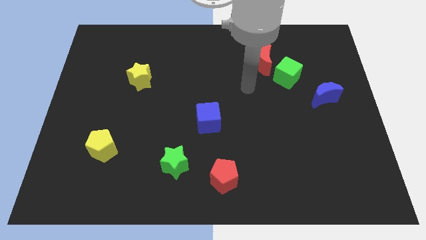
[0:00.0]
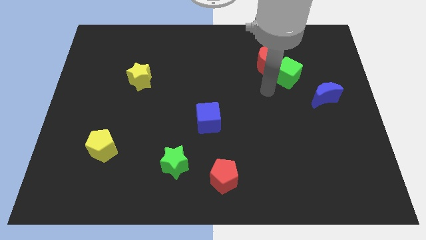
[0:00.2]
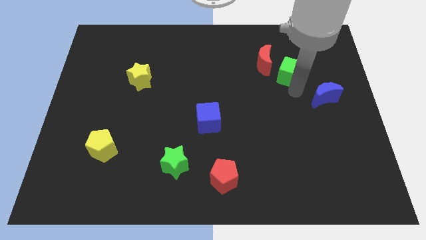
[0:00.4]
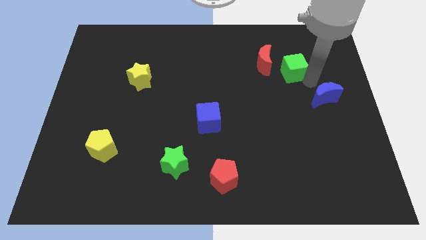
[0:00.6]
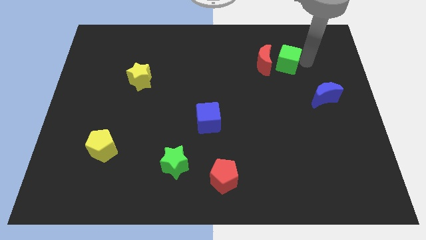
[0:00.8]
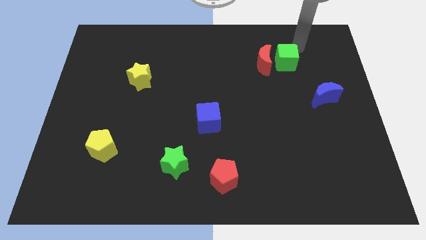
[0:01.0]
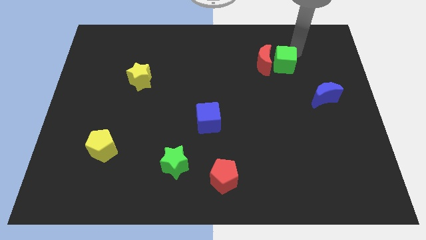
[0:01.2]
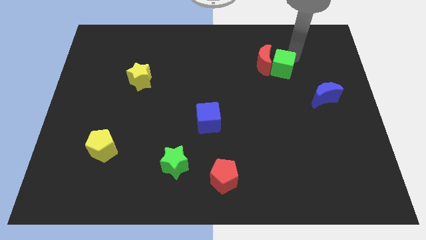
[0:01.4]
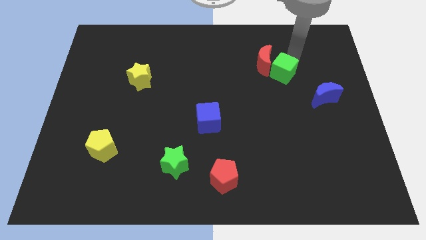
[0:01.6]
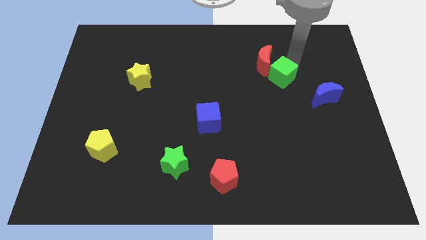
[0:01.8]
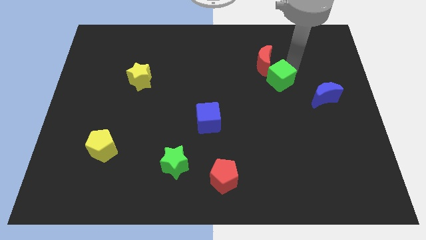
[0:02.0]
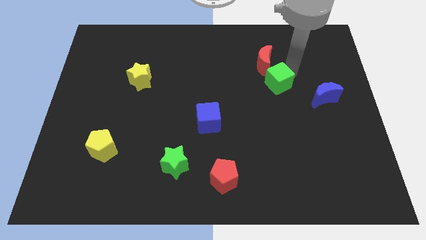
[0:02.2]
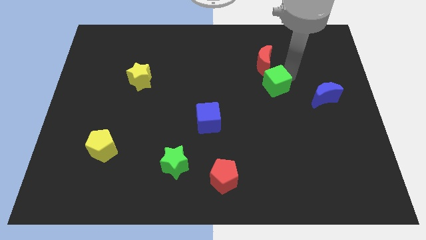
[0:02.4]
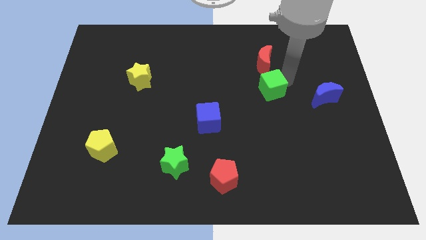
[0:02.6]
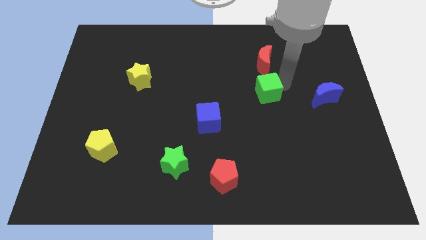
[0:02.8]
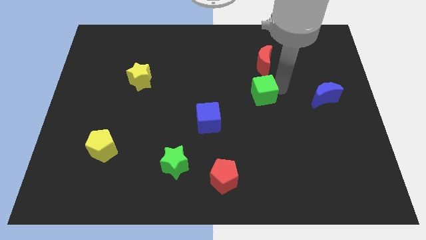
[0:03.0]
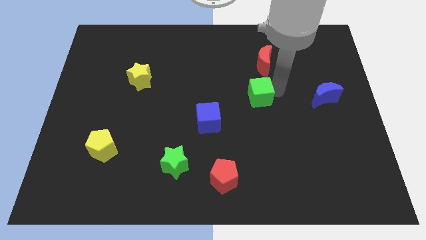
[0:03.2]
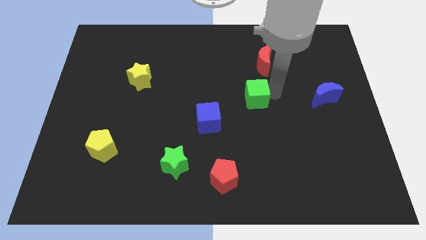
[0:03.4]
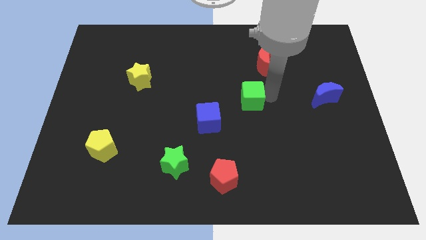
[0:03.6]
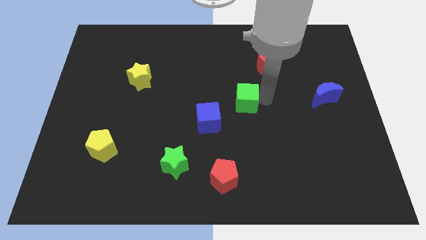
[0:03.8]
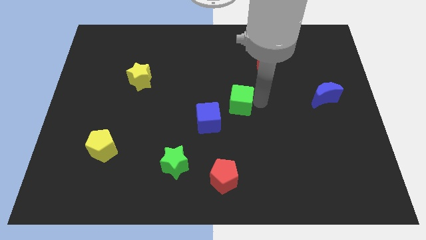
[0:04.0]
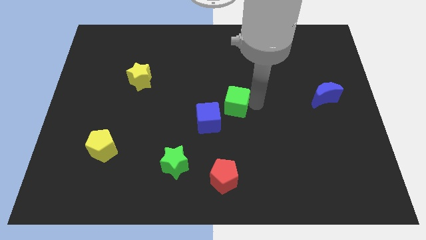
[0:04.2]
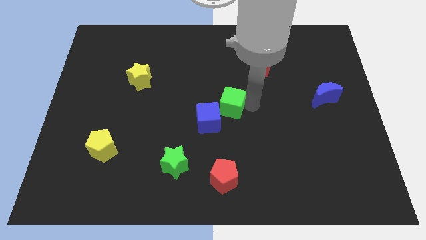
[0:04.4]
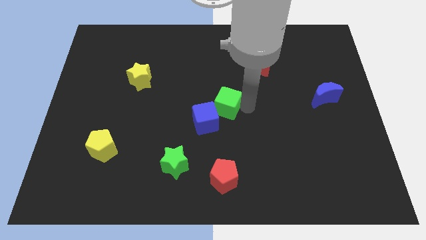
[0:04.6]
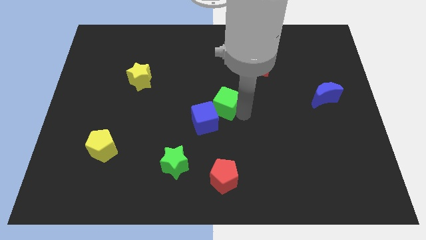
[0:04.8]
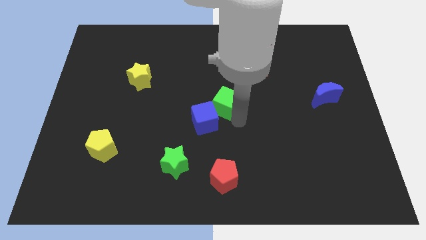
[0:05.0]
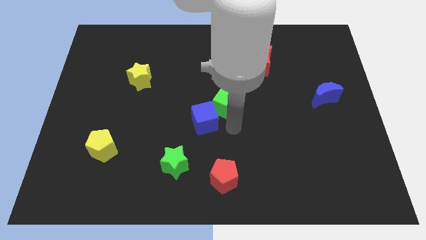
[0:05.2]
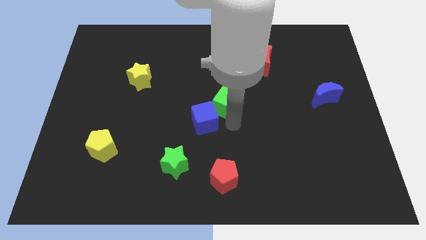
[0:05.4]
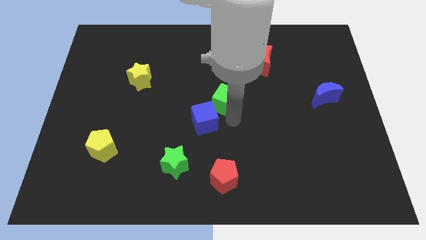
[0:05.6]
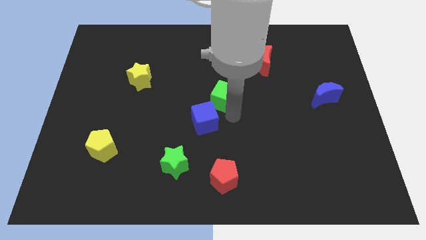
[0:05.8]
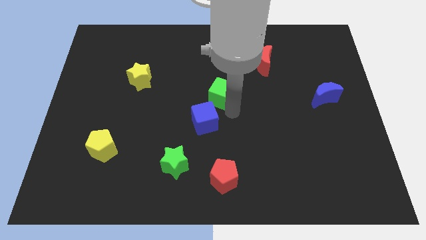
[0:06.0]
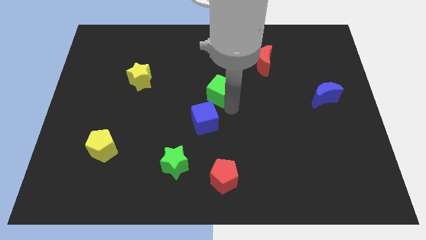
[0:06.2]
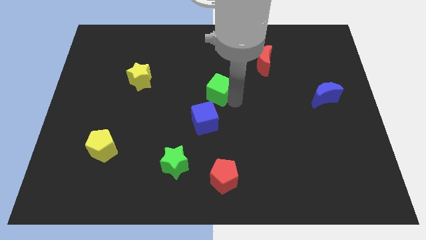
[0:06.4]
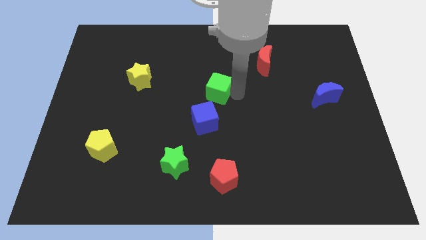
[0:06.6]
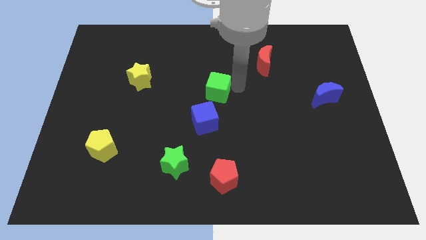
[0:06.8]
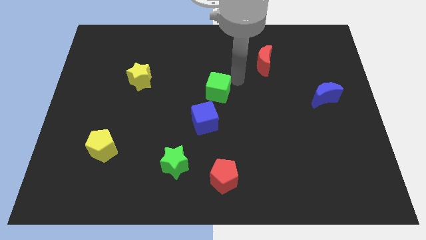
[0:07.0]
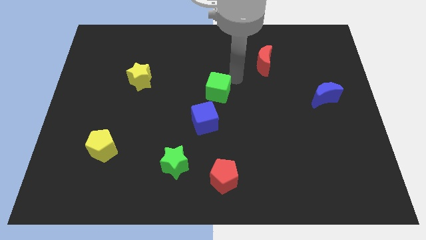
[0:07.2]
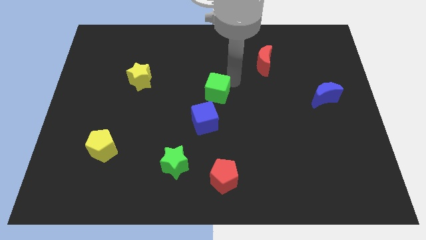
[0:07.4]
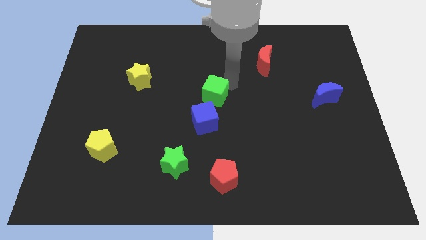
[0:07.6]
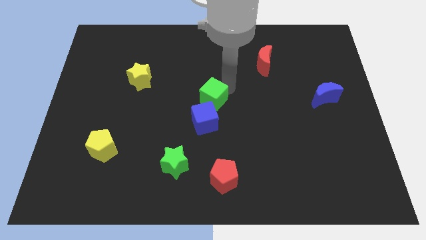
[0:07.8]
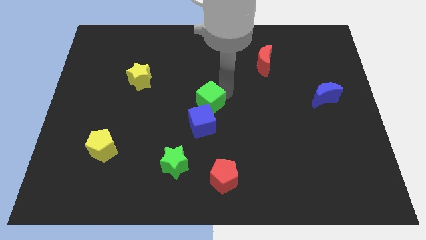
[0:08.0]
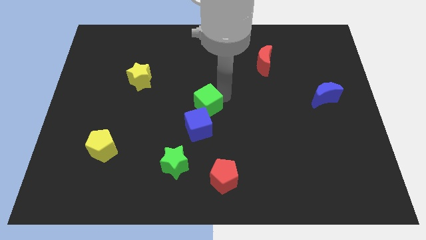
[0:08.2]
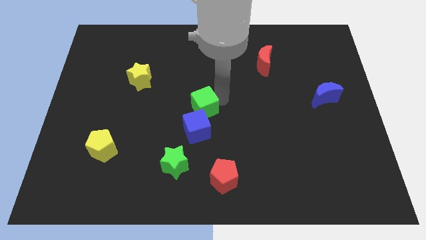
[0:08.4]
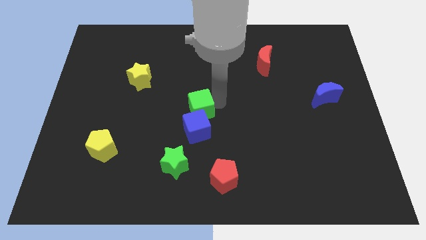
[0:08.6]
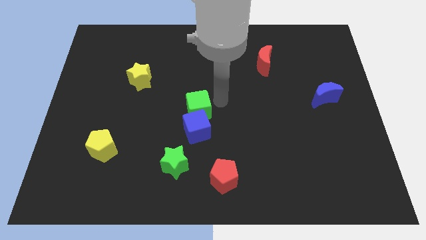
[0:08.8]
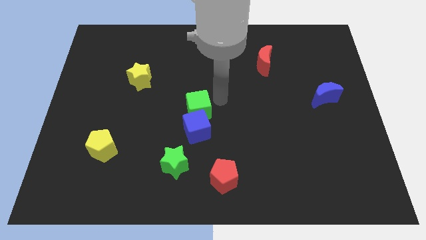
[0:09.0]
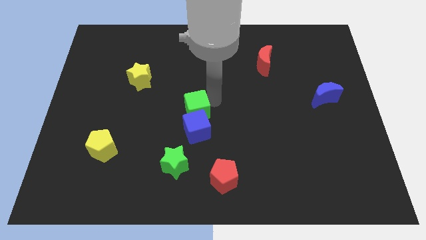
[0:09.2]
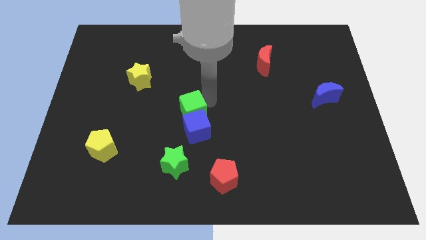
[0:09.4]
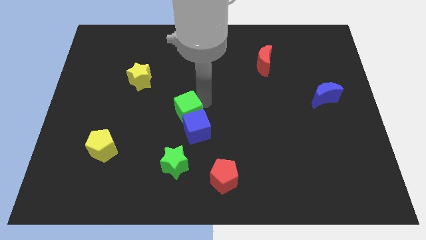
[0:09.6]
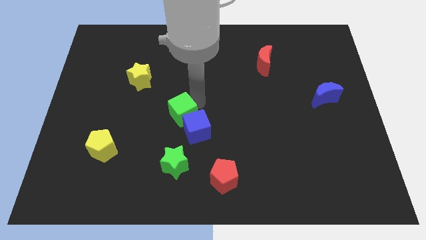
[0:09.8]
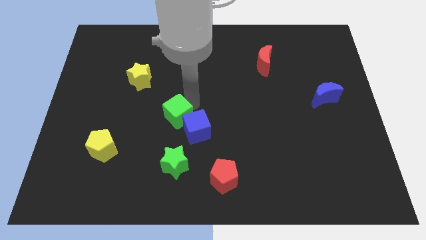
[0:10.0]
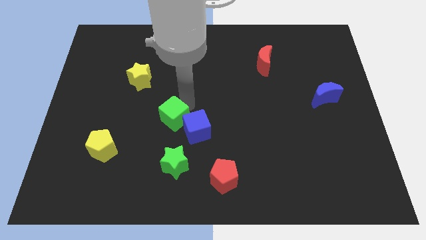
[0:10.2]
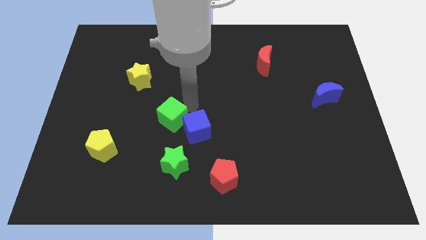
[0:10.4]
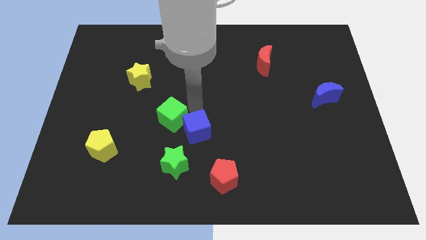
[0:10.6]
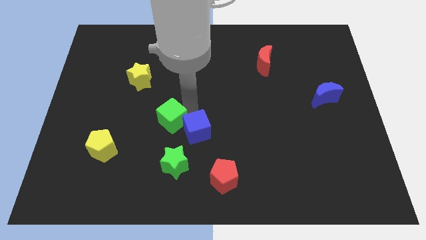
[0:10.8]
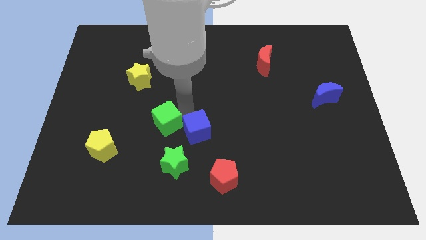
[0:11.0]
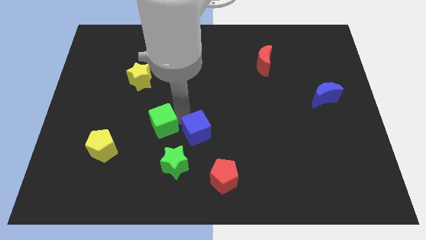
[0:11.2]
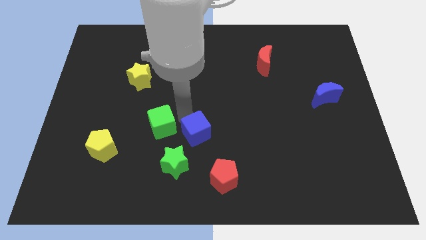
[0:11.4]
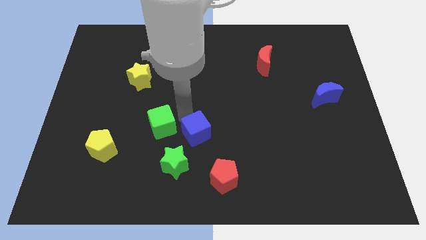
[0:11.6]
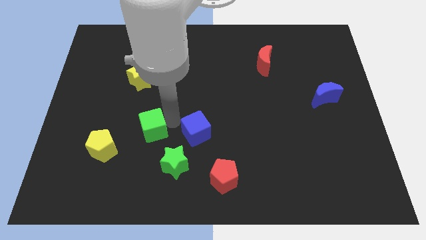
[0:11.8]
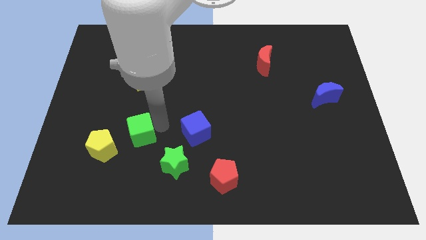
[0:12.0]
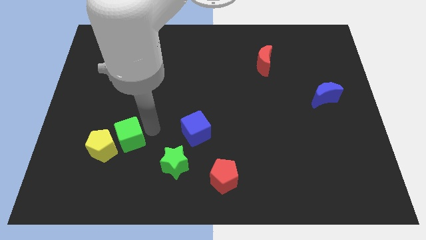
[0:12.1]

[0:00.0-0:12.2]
push the green cube towards the yellow pentagon

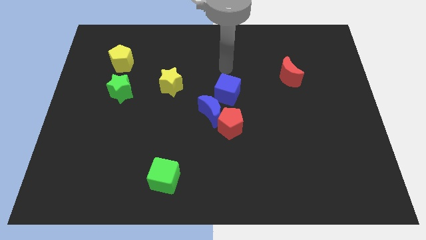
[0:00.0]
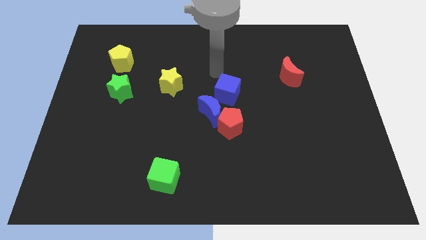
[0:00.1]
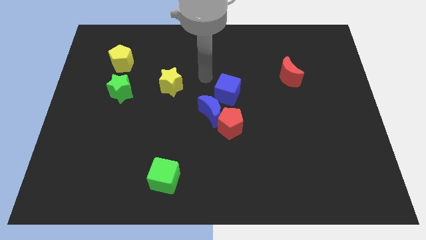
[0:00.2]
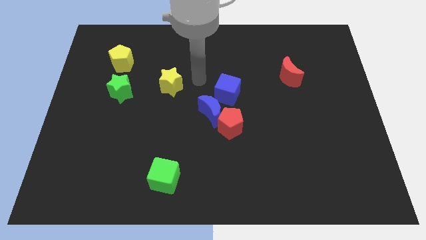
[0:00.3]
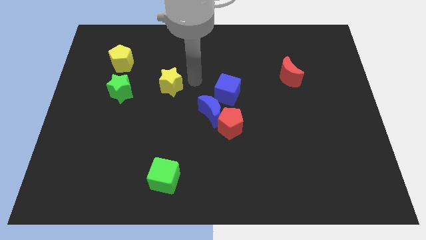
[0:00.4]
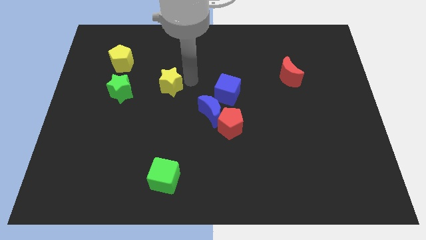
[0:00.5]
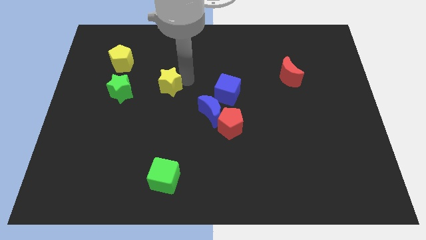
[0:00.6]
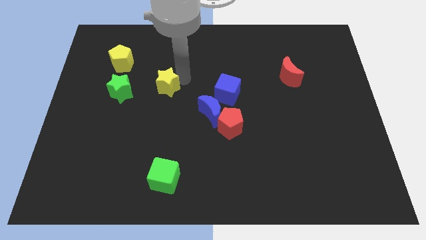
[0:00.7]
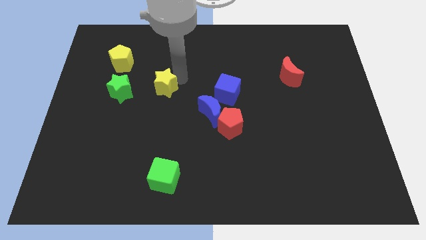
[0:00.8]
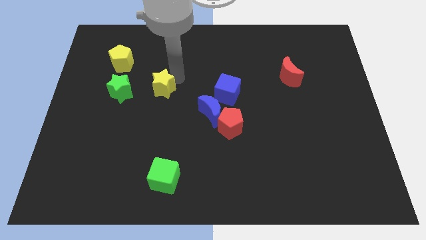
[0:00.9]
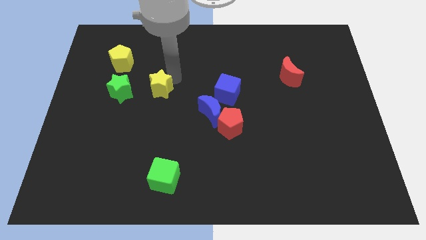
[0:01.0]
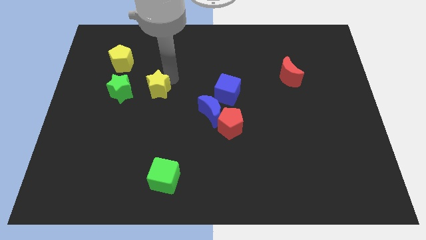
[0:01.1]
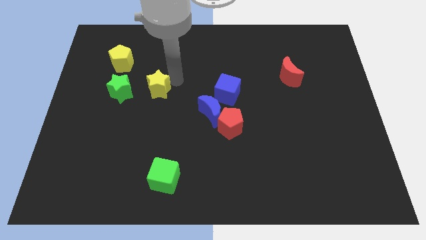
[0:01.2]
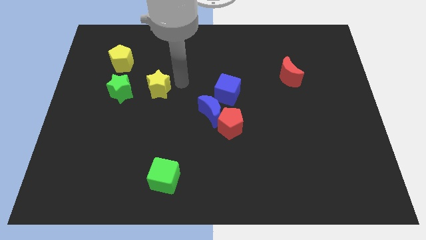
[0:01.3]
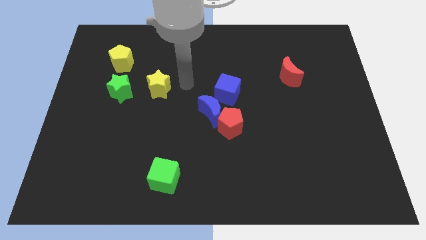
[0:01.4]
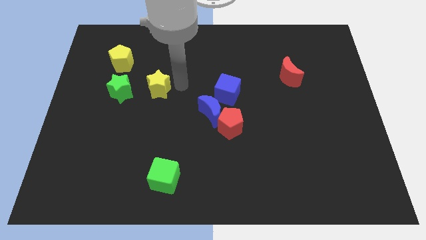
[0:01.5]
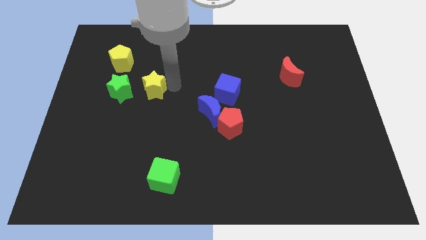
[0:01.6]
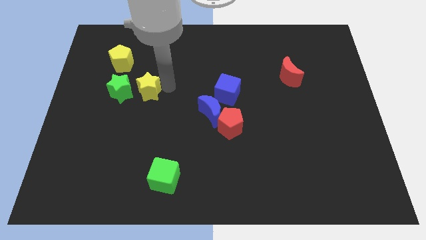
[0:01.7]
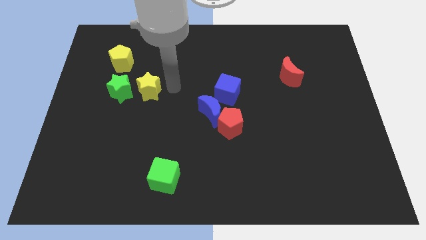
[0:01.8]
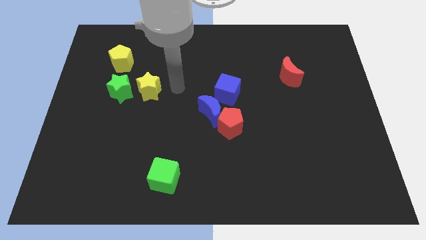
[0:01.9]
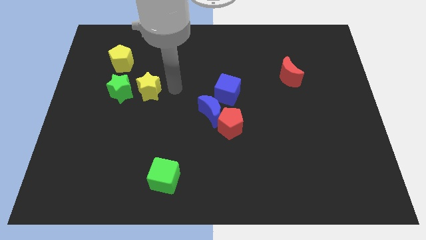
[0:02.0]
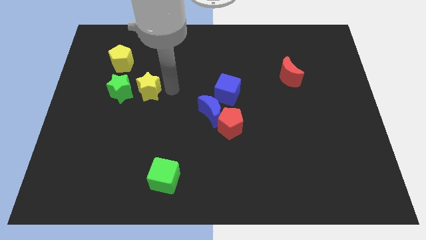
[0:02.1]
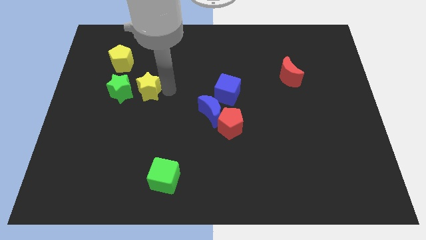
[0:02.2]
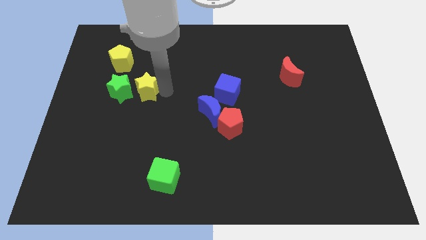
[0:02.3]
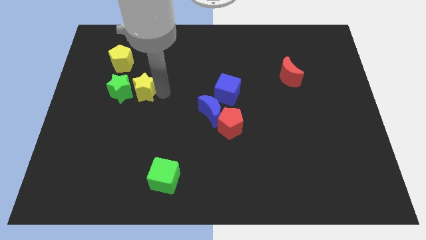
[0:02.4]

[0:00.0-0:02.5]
push the yellow star to the green star
